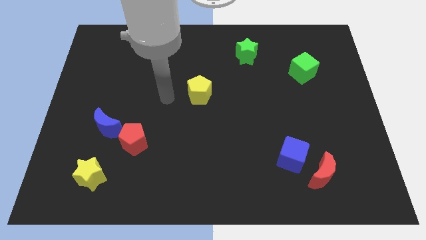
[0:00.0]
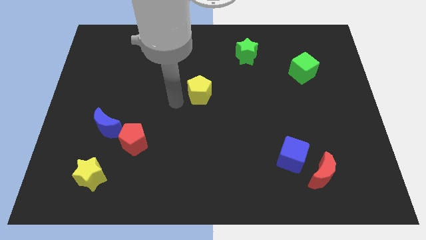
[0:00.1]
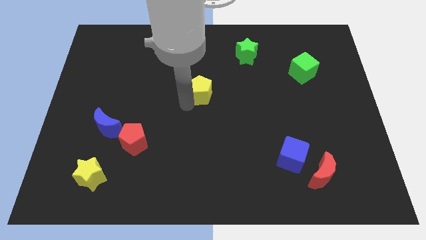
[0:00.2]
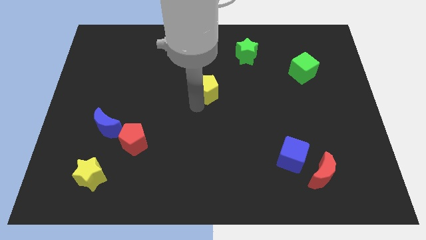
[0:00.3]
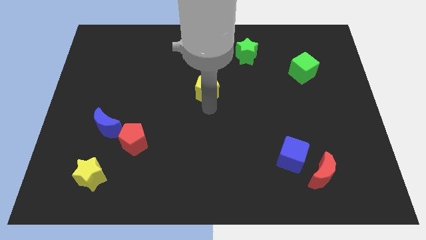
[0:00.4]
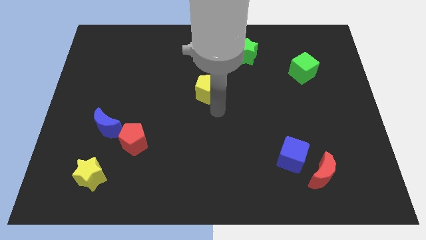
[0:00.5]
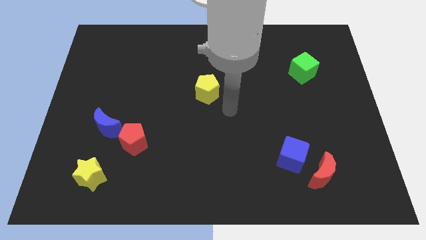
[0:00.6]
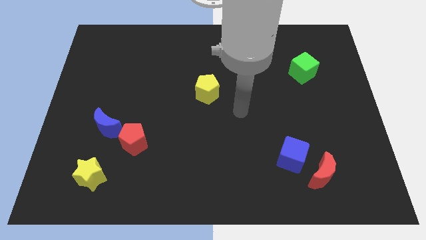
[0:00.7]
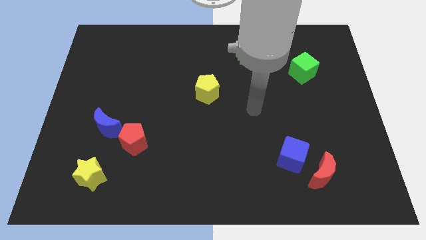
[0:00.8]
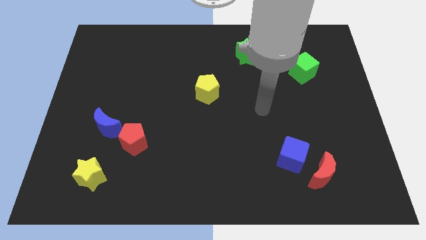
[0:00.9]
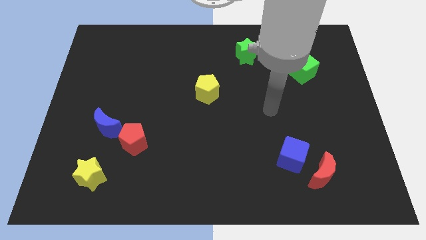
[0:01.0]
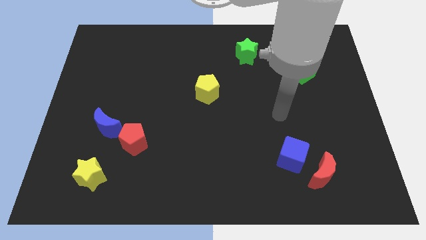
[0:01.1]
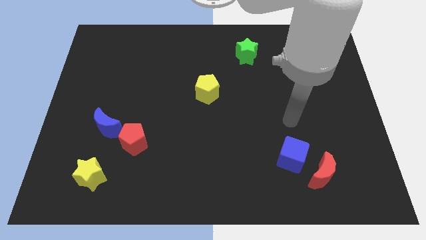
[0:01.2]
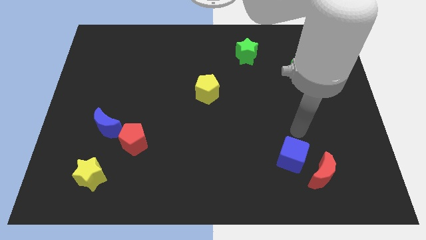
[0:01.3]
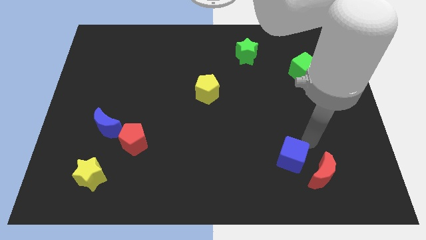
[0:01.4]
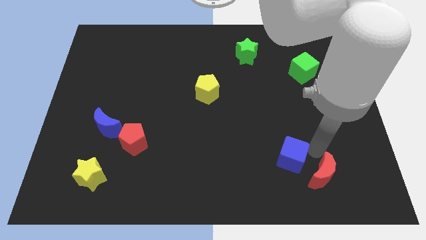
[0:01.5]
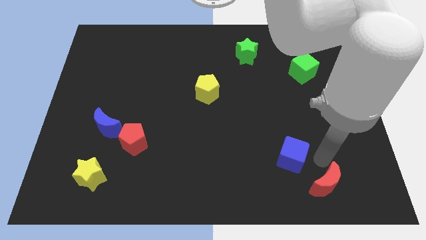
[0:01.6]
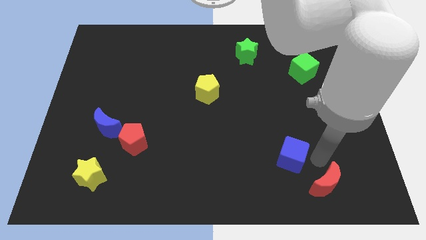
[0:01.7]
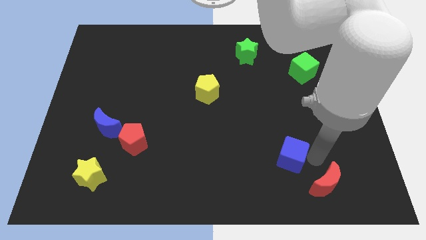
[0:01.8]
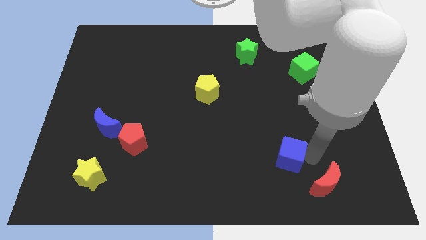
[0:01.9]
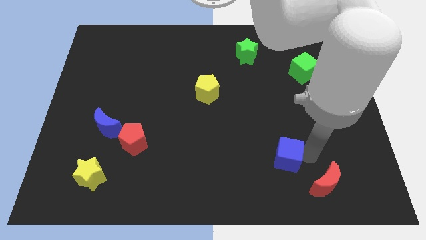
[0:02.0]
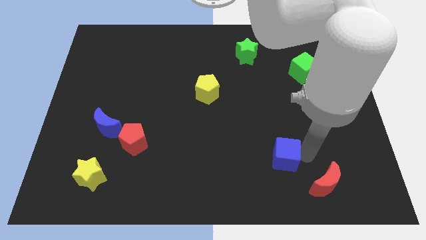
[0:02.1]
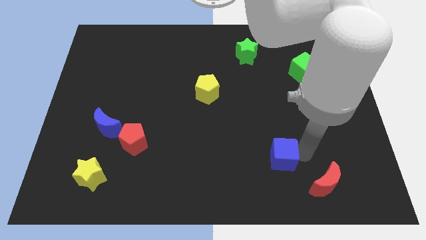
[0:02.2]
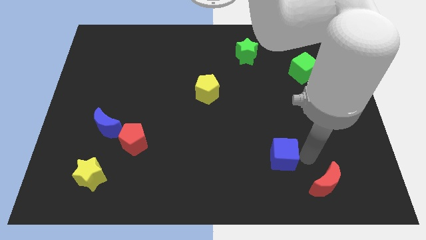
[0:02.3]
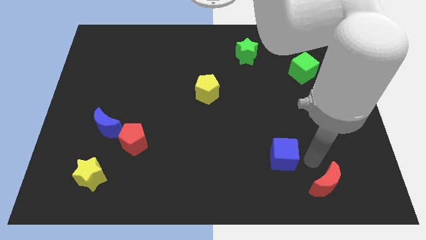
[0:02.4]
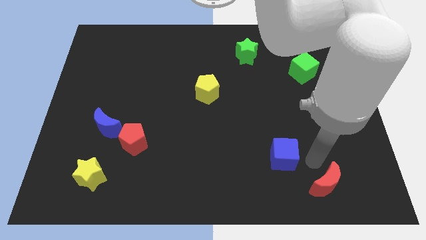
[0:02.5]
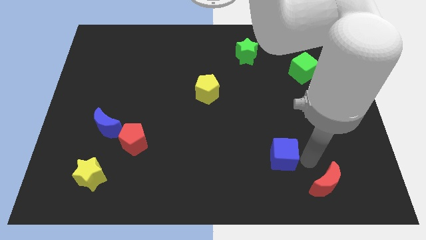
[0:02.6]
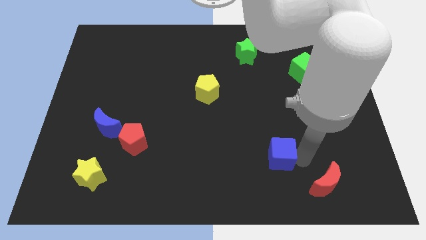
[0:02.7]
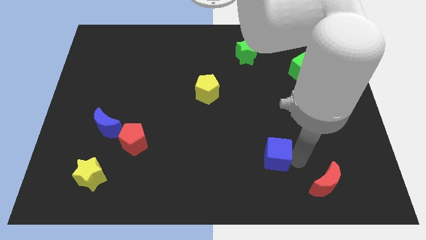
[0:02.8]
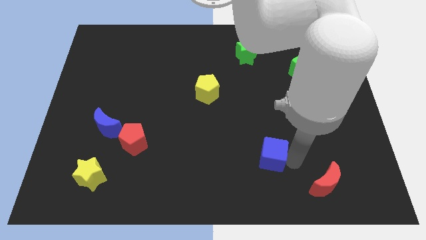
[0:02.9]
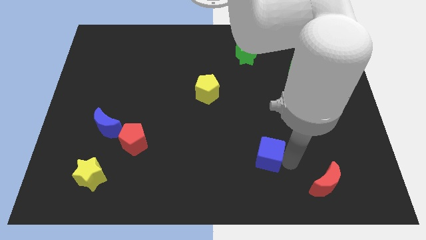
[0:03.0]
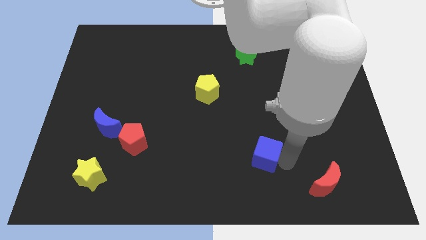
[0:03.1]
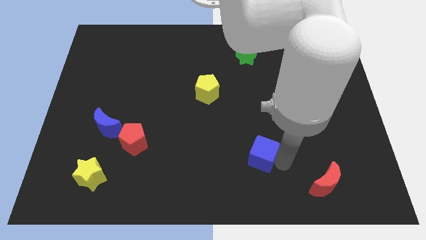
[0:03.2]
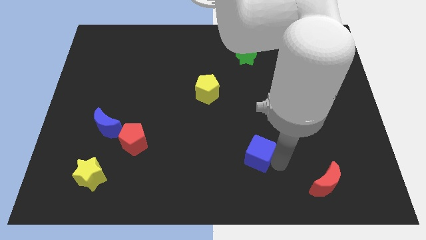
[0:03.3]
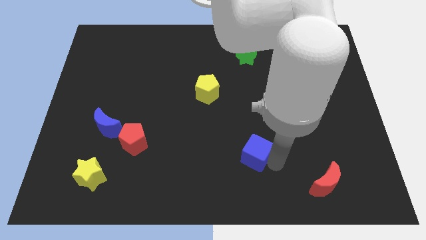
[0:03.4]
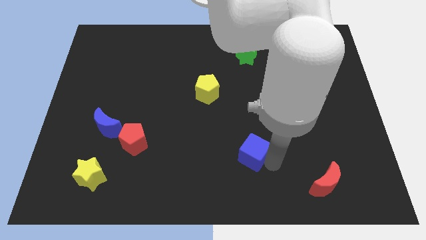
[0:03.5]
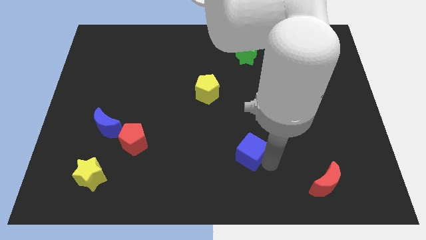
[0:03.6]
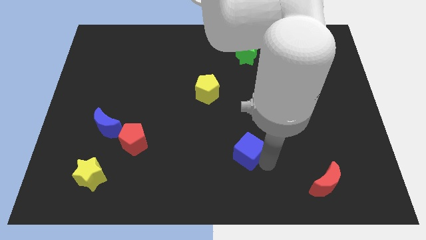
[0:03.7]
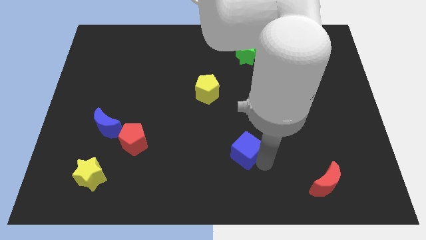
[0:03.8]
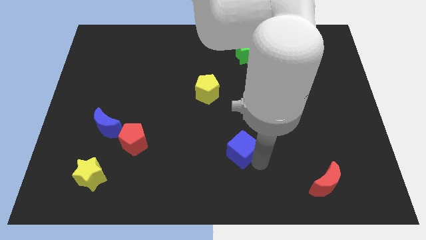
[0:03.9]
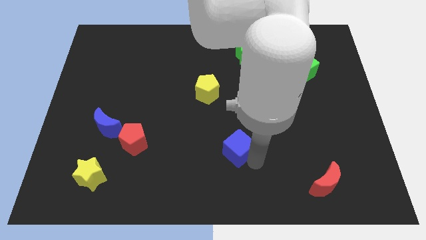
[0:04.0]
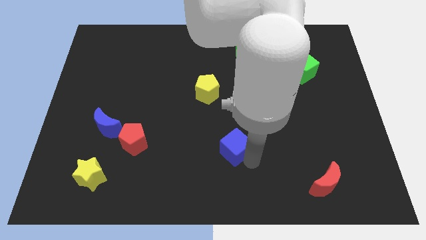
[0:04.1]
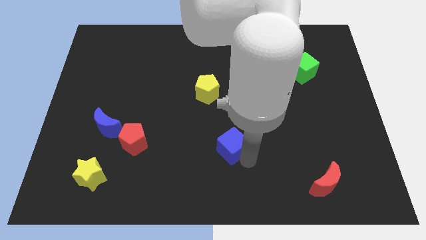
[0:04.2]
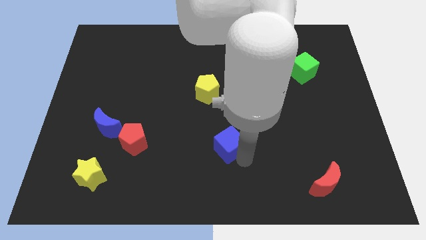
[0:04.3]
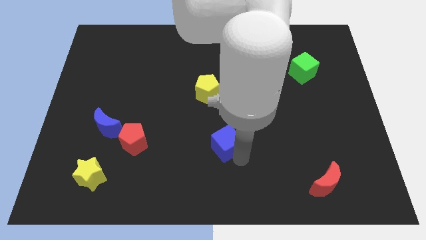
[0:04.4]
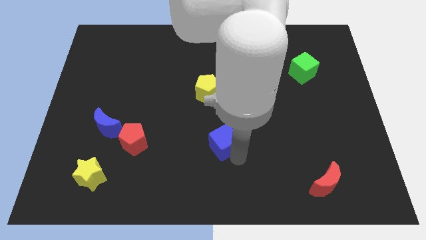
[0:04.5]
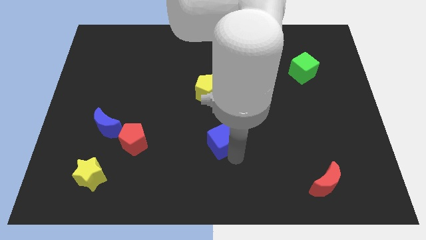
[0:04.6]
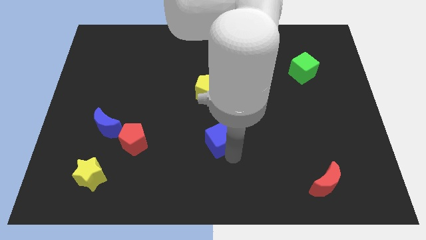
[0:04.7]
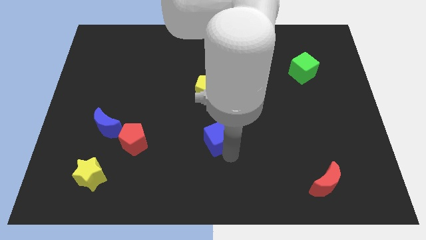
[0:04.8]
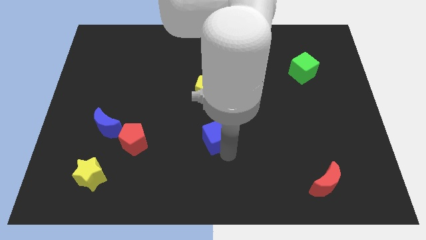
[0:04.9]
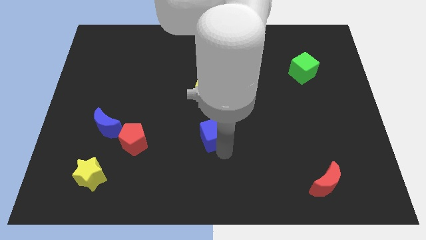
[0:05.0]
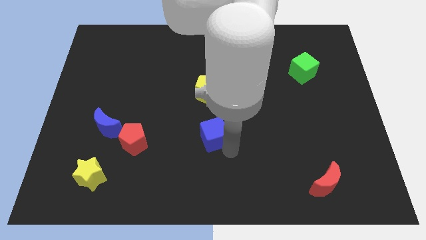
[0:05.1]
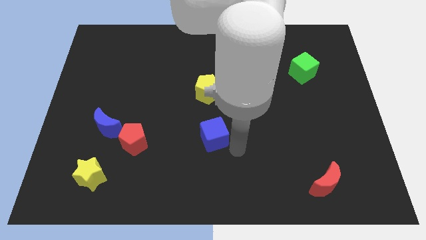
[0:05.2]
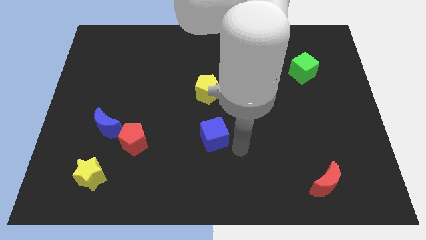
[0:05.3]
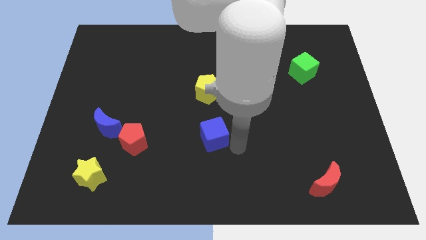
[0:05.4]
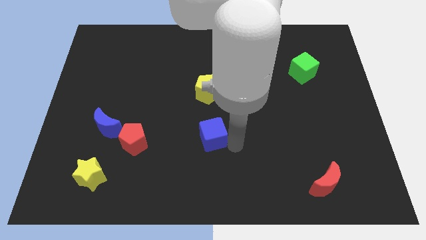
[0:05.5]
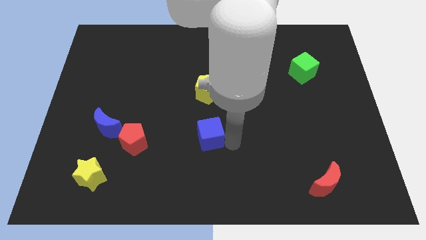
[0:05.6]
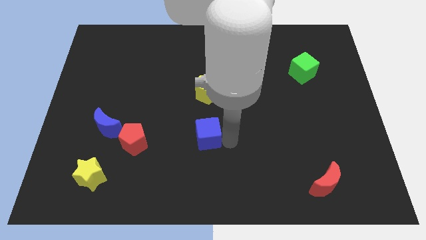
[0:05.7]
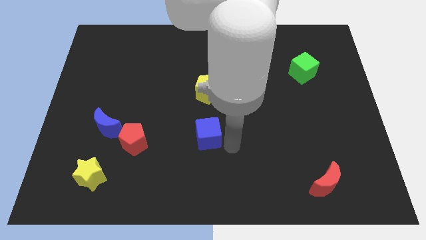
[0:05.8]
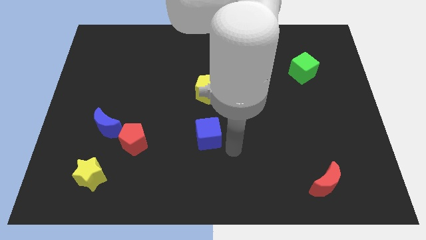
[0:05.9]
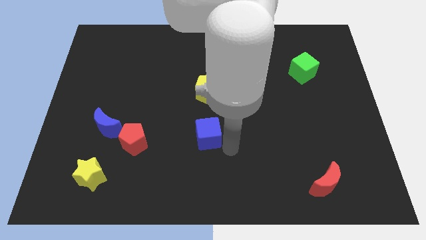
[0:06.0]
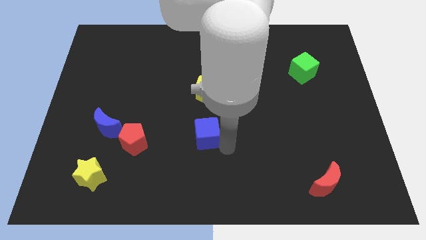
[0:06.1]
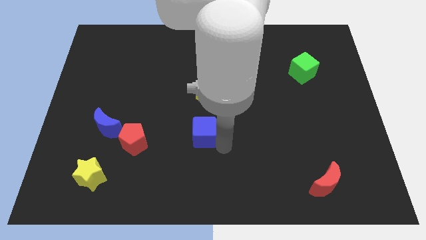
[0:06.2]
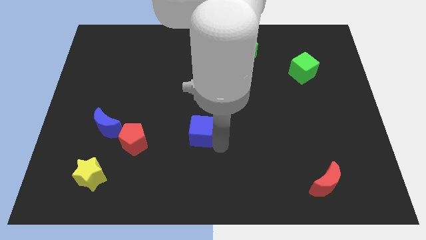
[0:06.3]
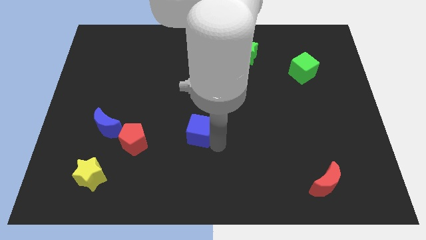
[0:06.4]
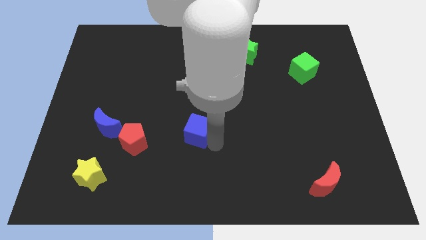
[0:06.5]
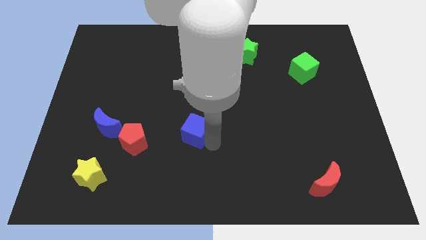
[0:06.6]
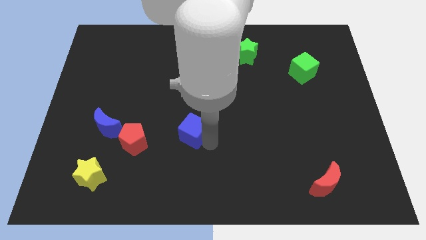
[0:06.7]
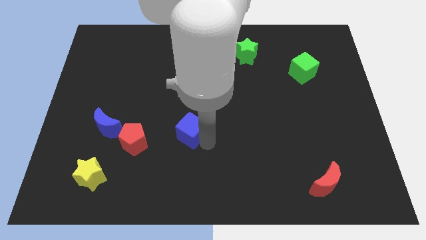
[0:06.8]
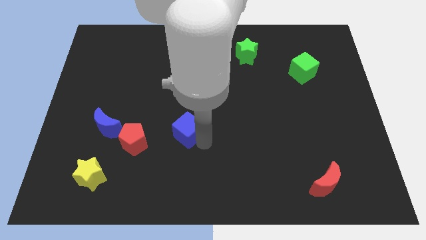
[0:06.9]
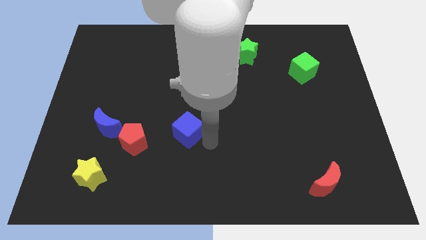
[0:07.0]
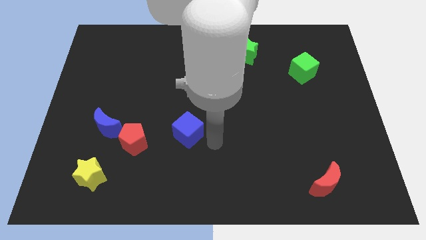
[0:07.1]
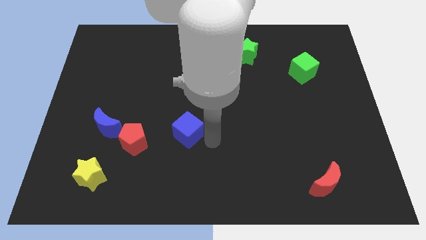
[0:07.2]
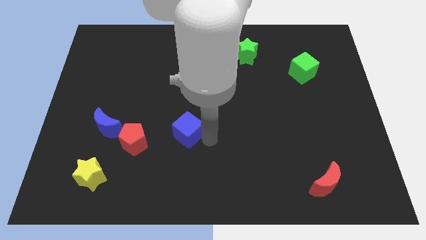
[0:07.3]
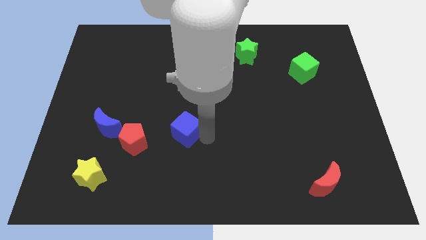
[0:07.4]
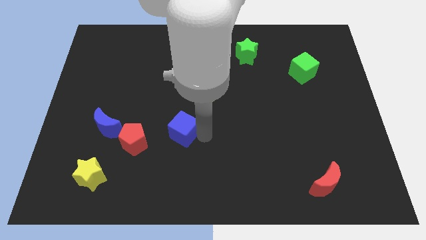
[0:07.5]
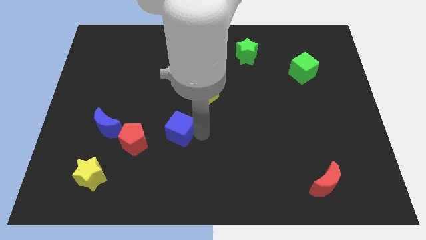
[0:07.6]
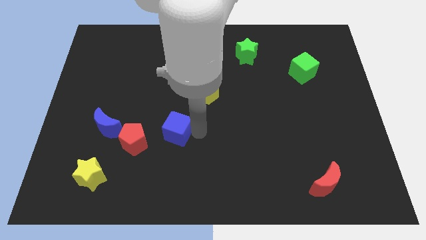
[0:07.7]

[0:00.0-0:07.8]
move the blue cube to the top right side of the red pentagon
